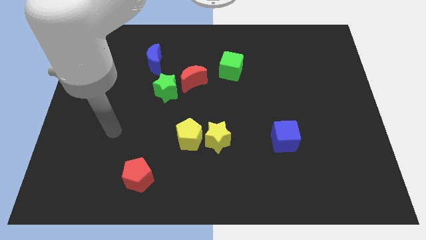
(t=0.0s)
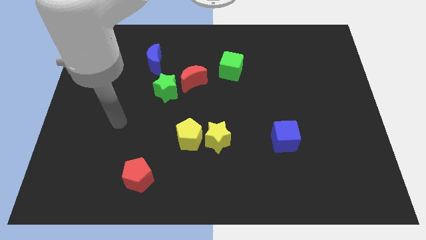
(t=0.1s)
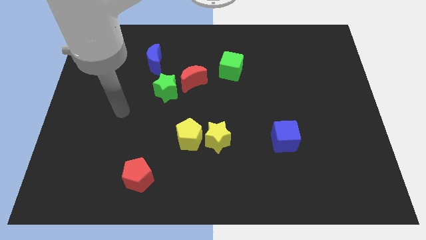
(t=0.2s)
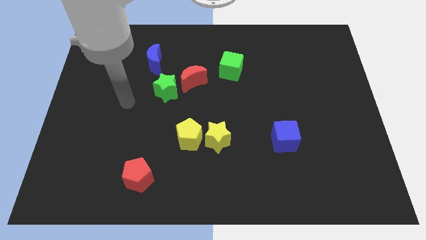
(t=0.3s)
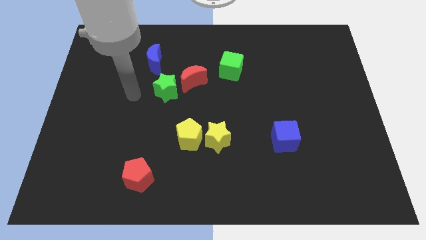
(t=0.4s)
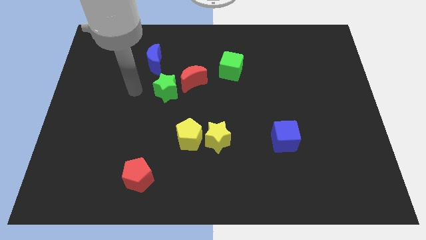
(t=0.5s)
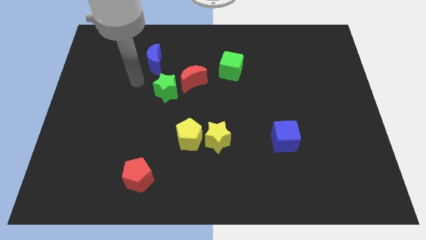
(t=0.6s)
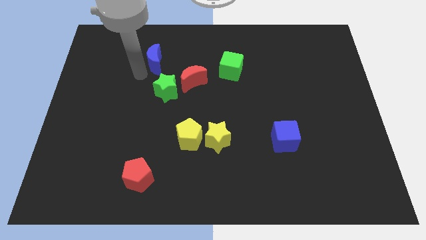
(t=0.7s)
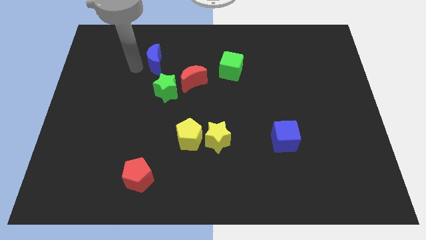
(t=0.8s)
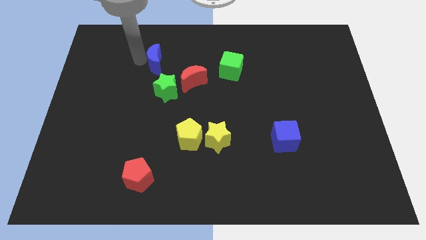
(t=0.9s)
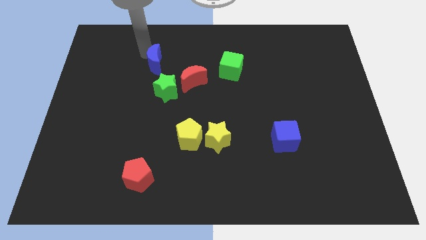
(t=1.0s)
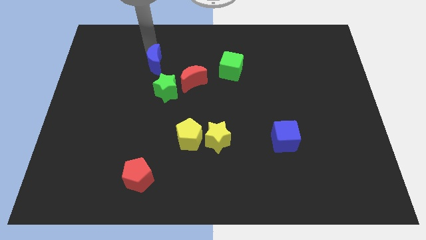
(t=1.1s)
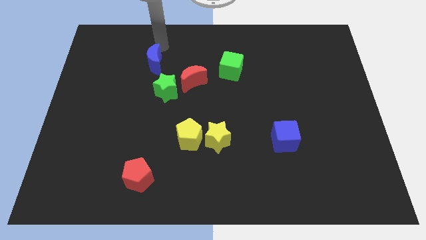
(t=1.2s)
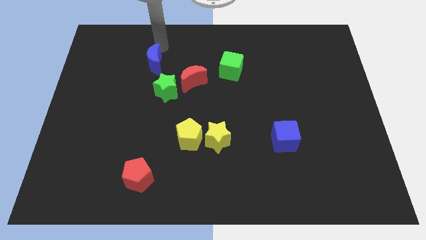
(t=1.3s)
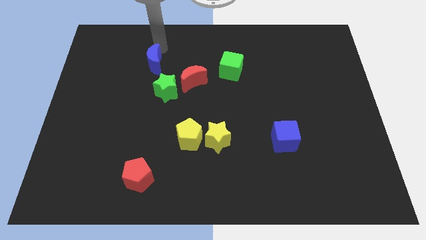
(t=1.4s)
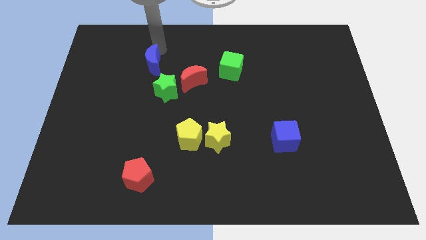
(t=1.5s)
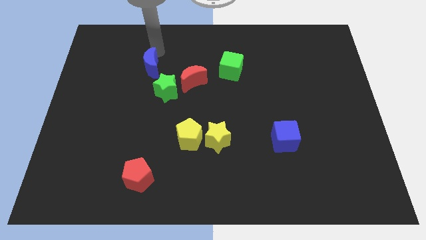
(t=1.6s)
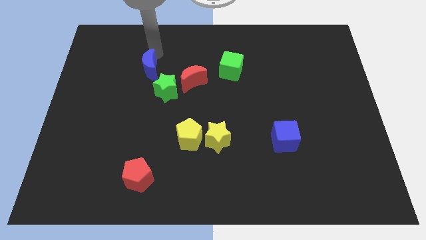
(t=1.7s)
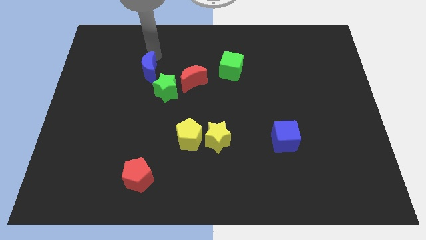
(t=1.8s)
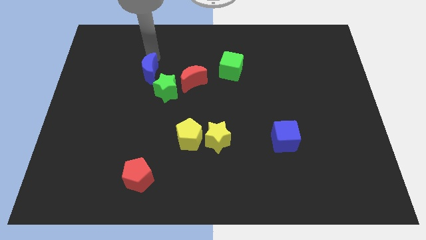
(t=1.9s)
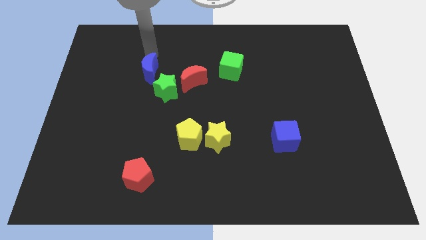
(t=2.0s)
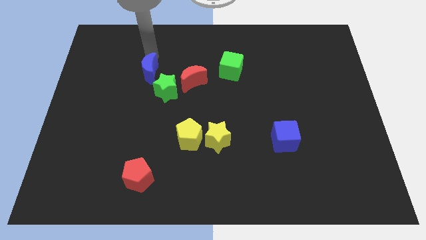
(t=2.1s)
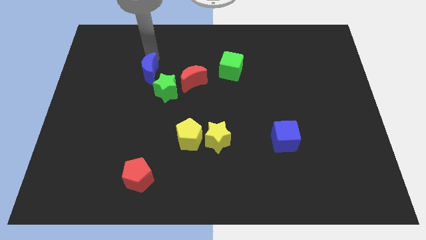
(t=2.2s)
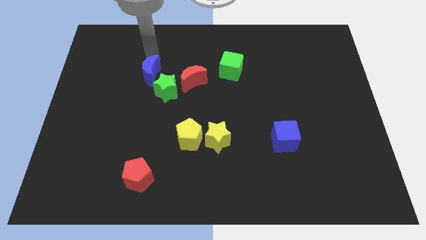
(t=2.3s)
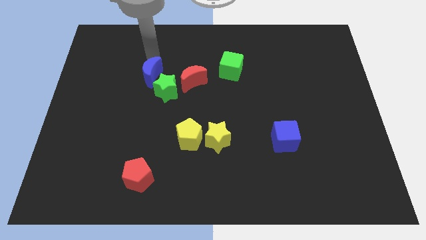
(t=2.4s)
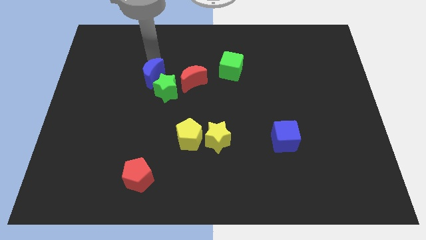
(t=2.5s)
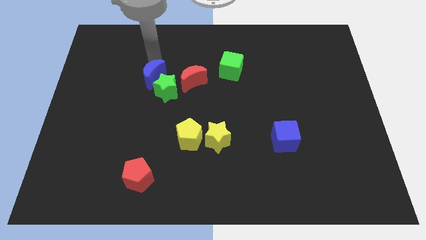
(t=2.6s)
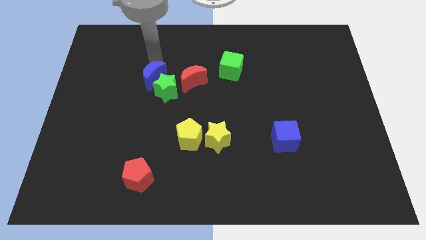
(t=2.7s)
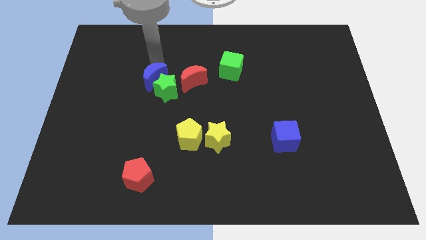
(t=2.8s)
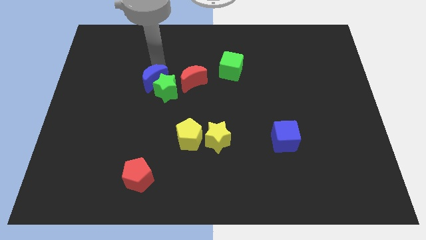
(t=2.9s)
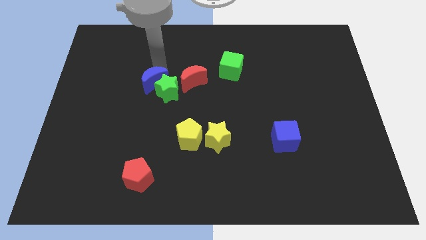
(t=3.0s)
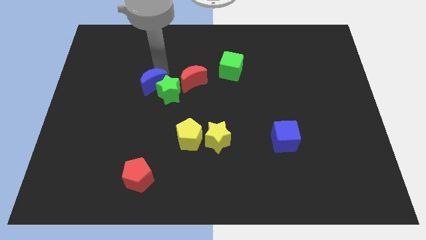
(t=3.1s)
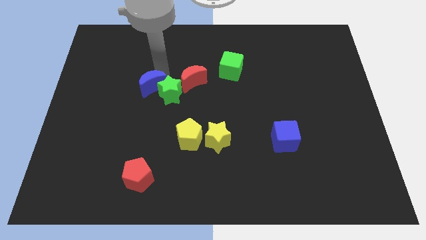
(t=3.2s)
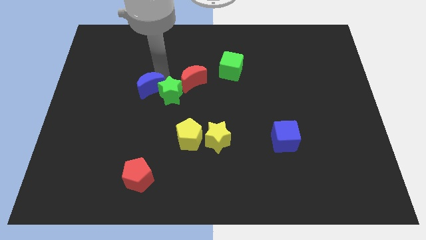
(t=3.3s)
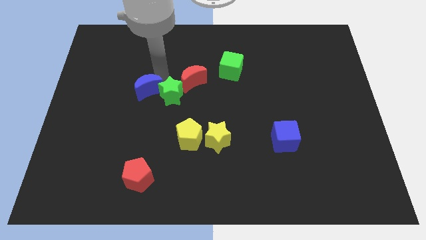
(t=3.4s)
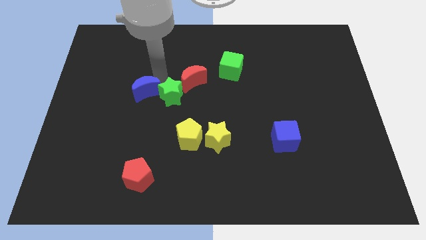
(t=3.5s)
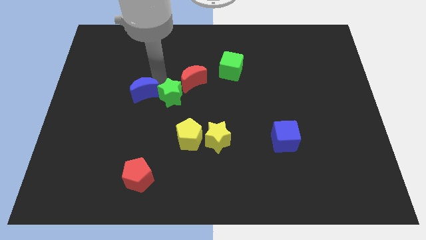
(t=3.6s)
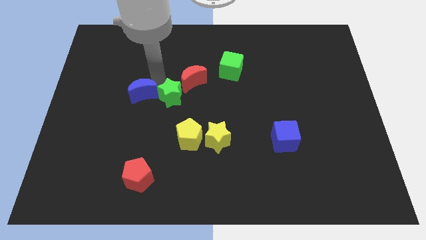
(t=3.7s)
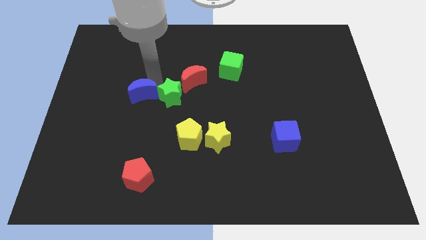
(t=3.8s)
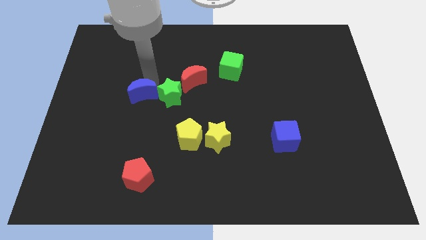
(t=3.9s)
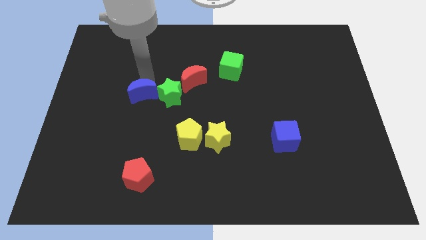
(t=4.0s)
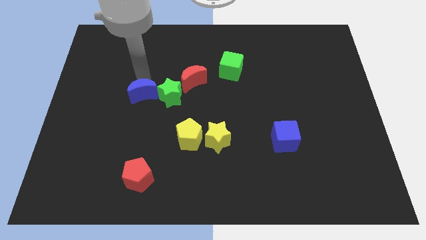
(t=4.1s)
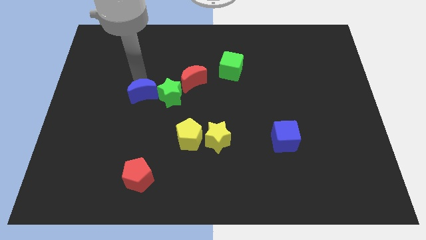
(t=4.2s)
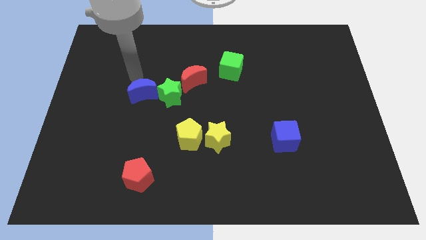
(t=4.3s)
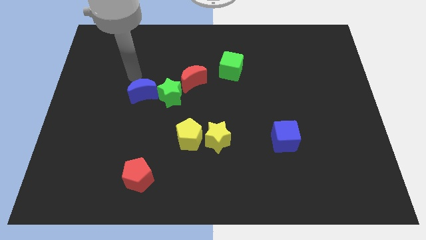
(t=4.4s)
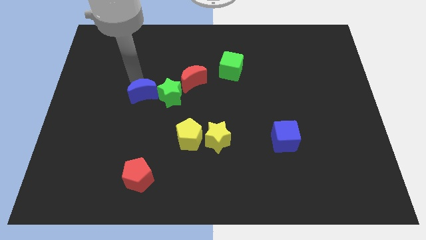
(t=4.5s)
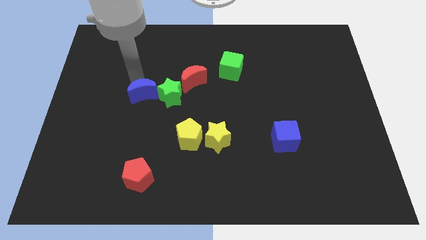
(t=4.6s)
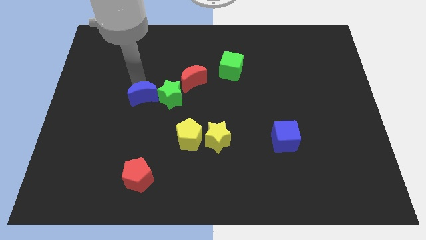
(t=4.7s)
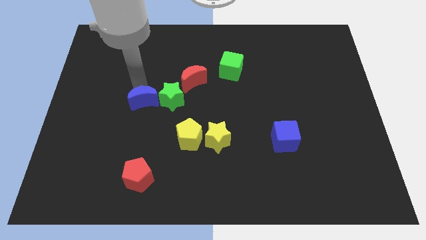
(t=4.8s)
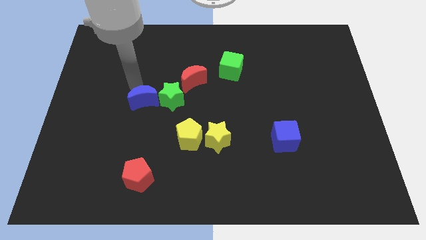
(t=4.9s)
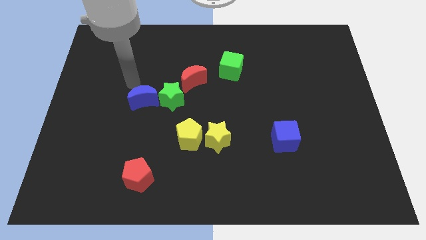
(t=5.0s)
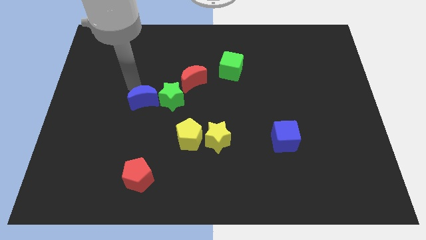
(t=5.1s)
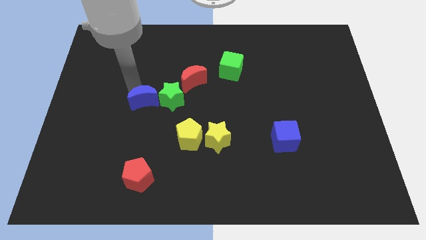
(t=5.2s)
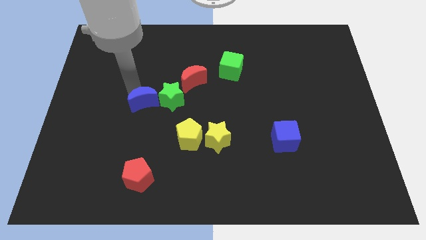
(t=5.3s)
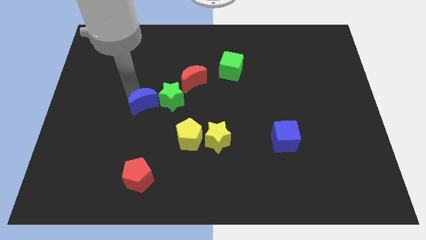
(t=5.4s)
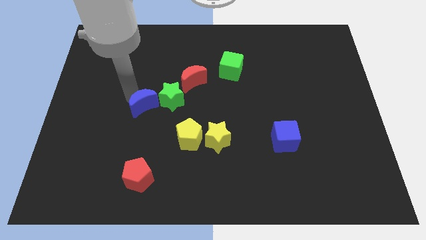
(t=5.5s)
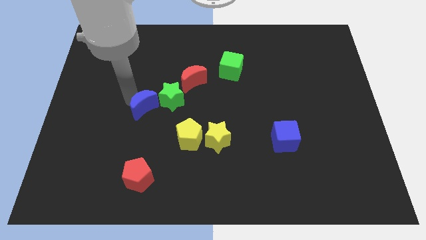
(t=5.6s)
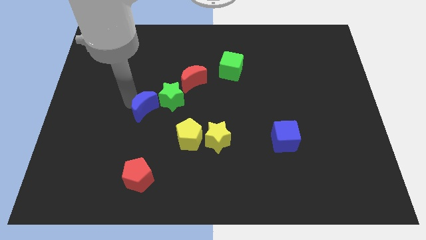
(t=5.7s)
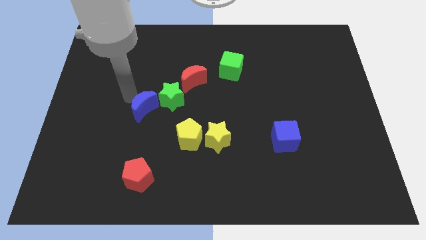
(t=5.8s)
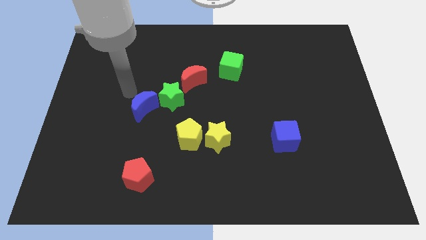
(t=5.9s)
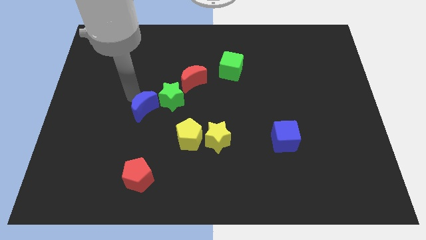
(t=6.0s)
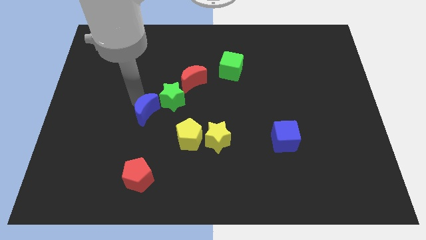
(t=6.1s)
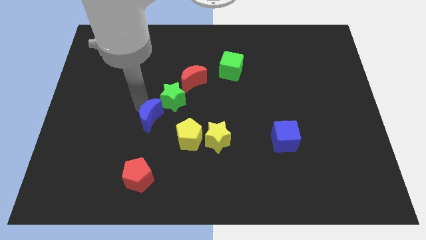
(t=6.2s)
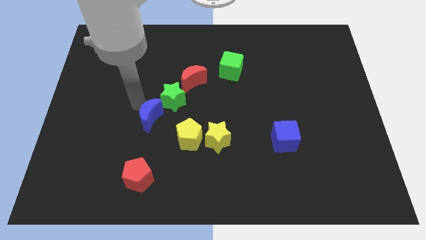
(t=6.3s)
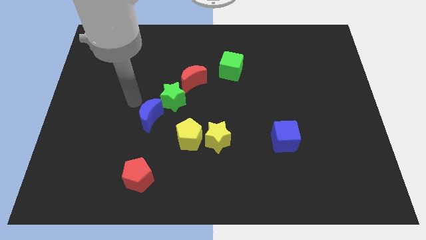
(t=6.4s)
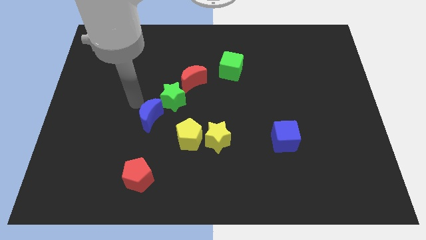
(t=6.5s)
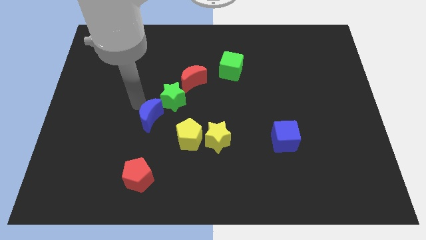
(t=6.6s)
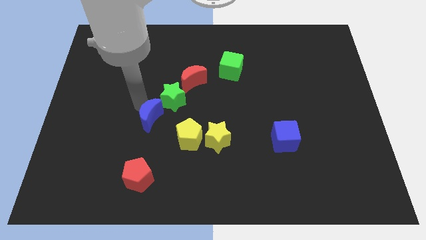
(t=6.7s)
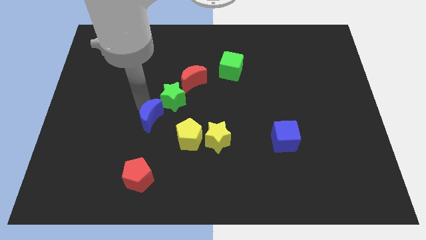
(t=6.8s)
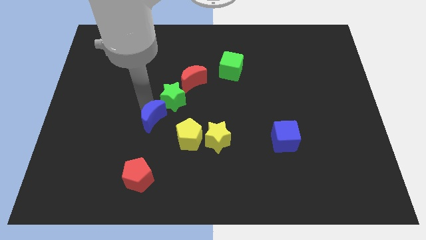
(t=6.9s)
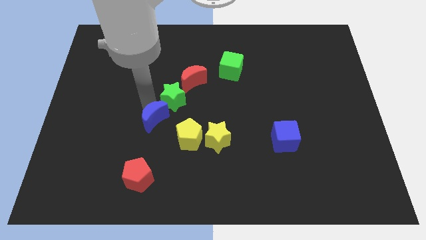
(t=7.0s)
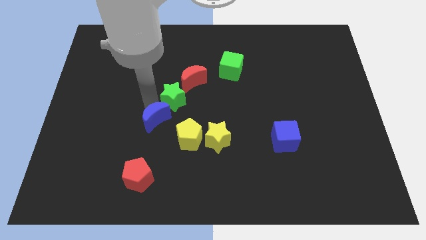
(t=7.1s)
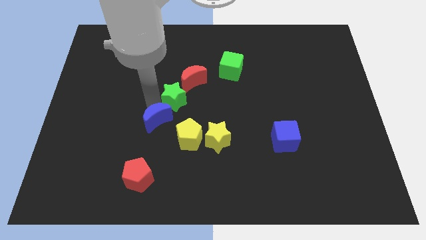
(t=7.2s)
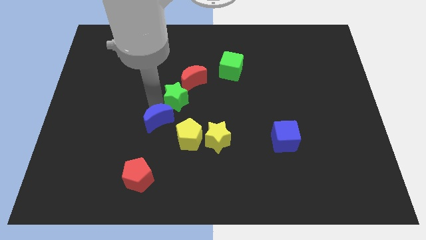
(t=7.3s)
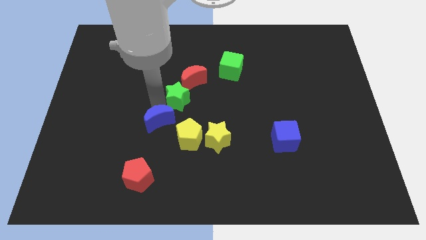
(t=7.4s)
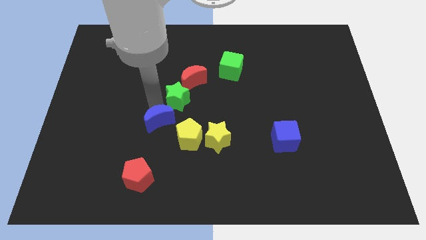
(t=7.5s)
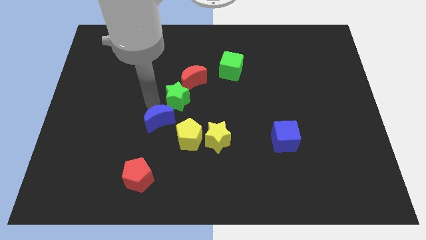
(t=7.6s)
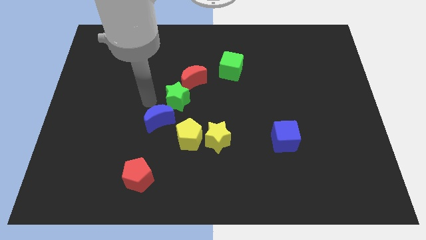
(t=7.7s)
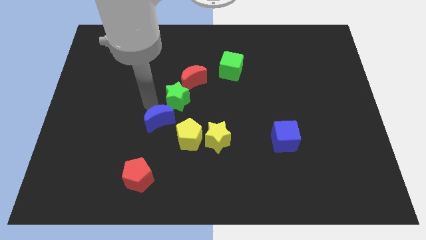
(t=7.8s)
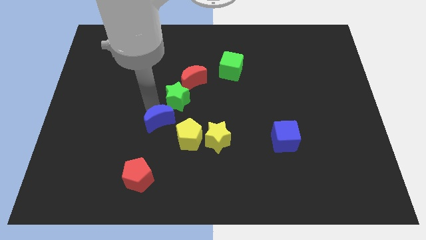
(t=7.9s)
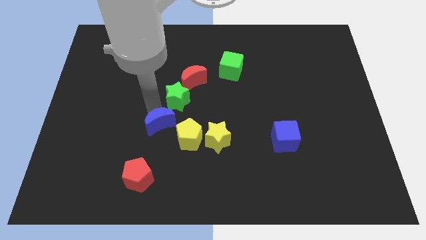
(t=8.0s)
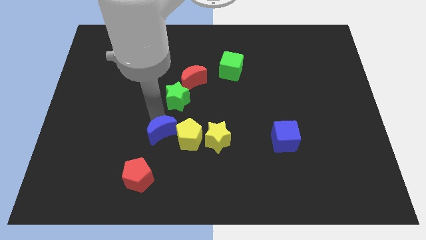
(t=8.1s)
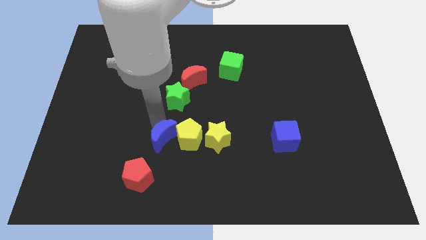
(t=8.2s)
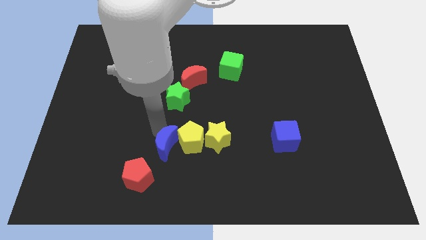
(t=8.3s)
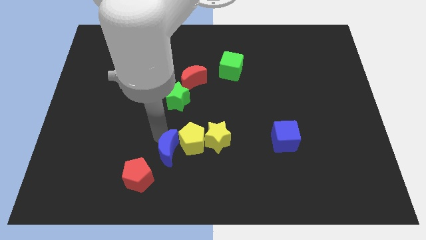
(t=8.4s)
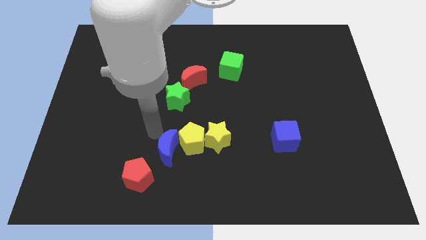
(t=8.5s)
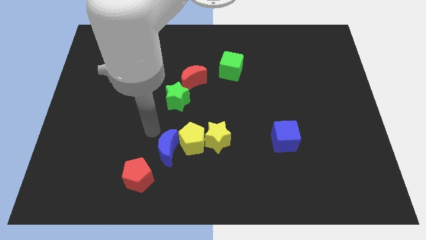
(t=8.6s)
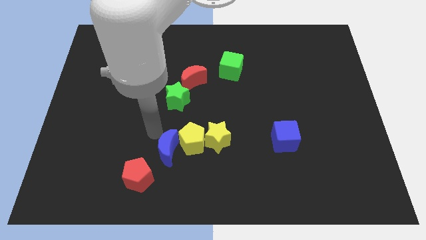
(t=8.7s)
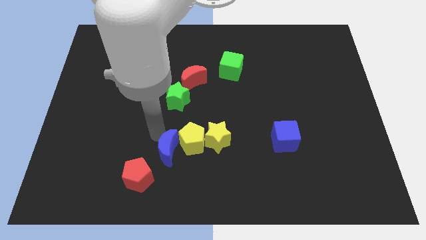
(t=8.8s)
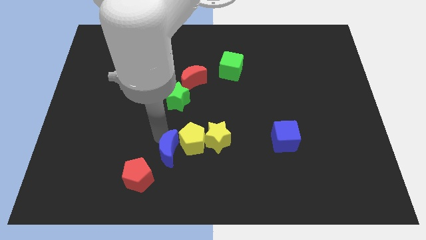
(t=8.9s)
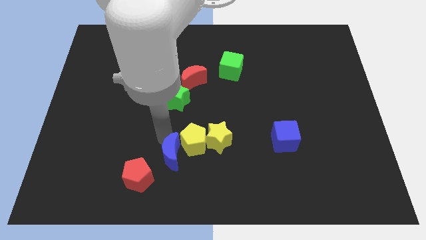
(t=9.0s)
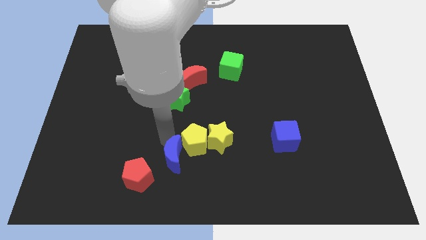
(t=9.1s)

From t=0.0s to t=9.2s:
put the blue moon to the right of the red pentagon
